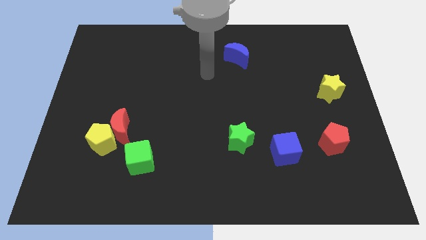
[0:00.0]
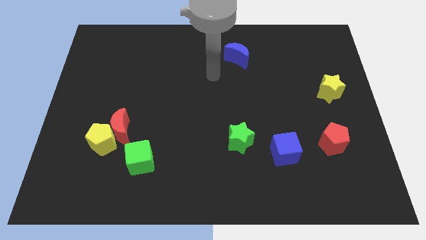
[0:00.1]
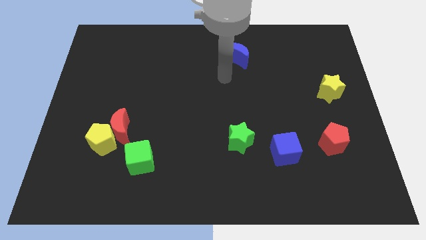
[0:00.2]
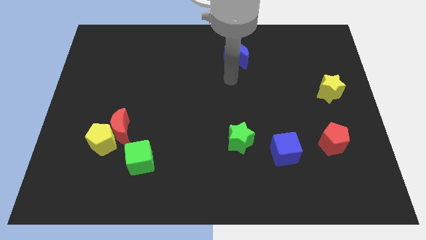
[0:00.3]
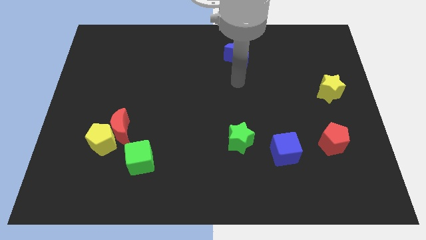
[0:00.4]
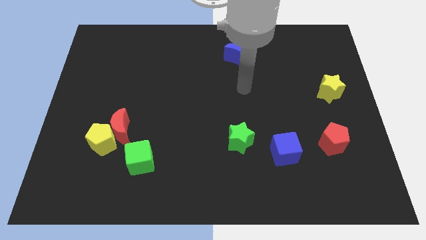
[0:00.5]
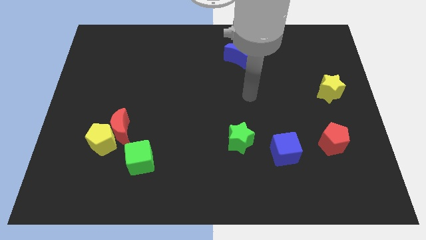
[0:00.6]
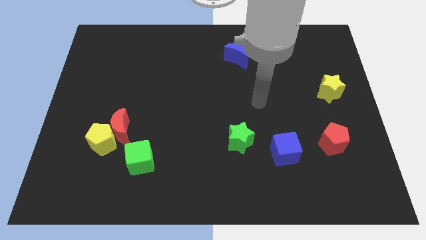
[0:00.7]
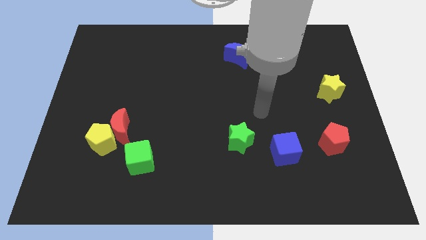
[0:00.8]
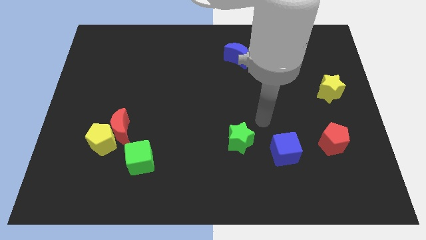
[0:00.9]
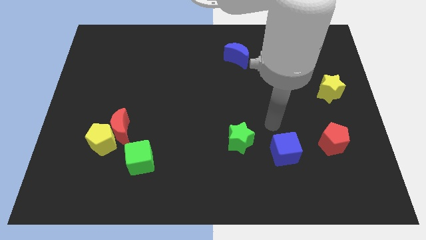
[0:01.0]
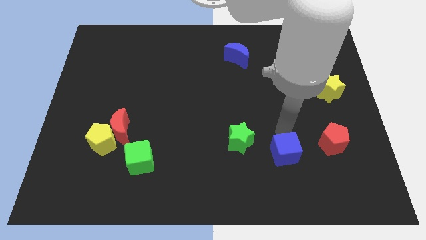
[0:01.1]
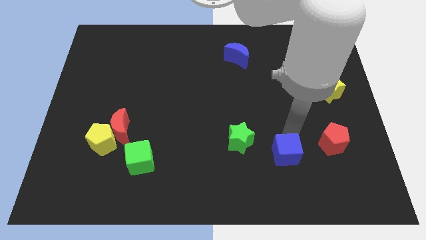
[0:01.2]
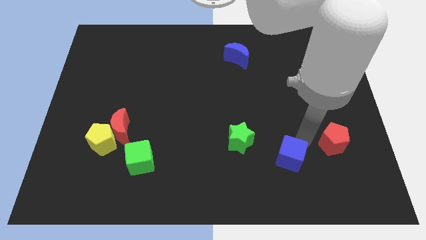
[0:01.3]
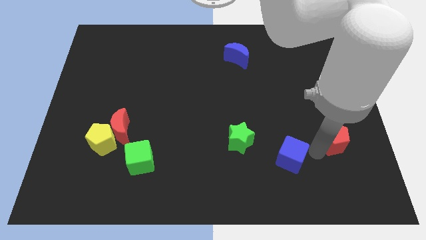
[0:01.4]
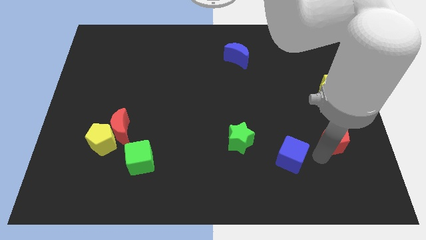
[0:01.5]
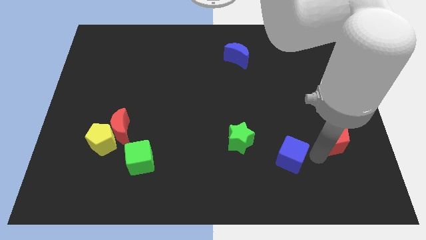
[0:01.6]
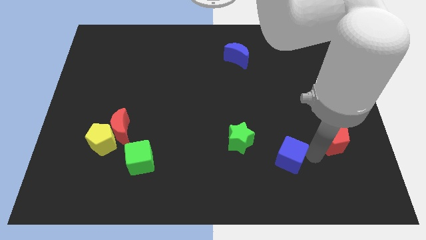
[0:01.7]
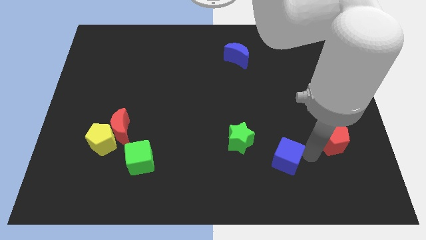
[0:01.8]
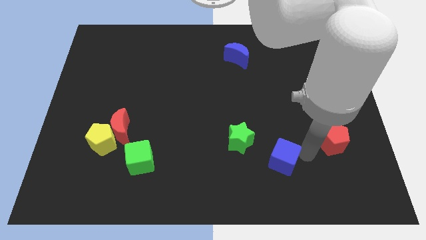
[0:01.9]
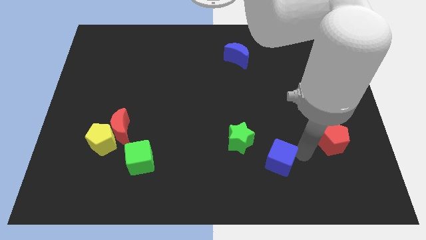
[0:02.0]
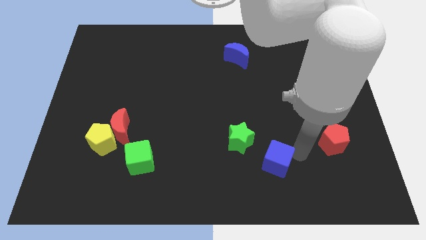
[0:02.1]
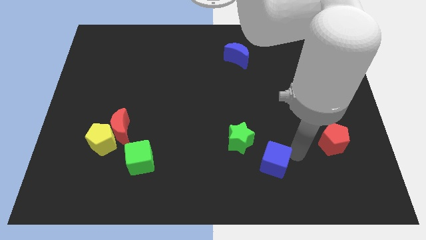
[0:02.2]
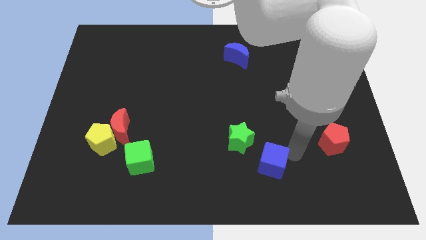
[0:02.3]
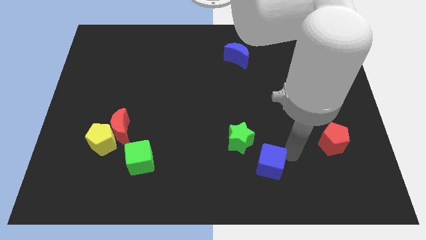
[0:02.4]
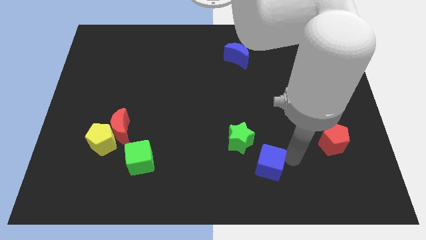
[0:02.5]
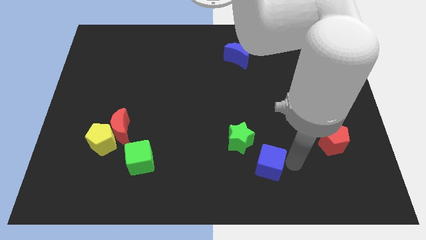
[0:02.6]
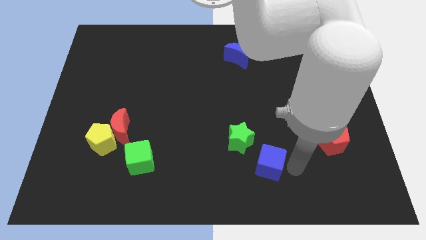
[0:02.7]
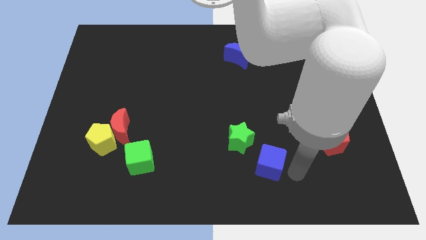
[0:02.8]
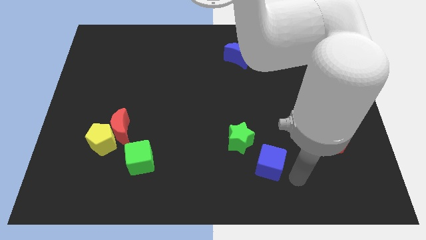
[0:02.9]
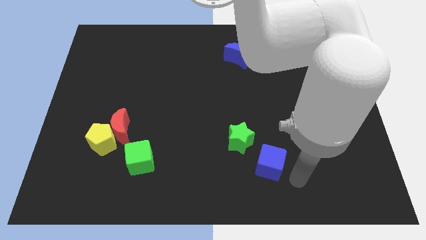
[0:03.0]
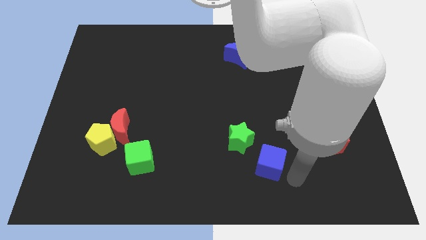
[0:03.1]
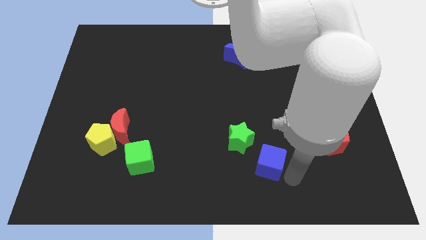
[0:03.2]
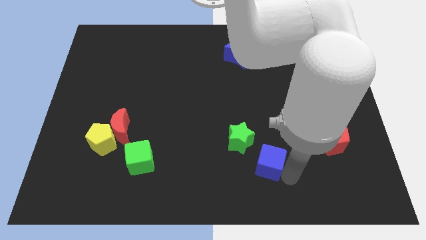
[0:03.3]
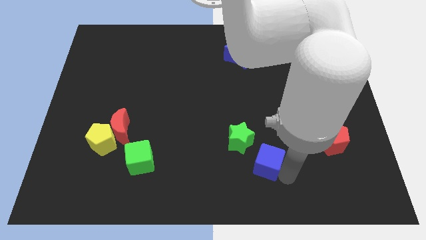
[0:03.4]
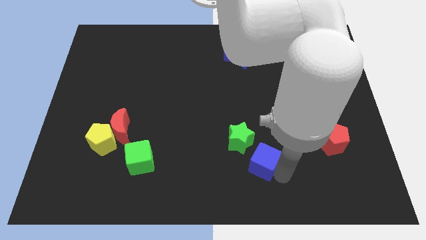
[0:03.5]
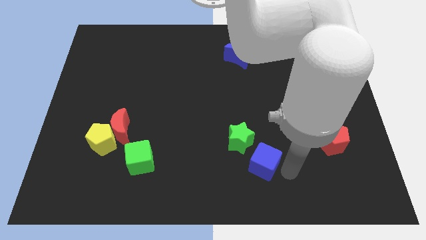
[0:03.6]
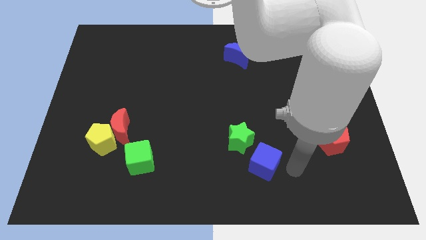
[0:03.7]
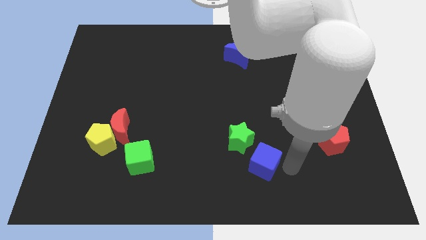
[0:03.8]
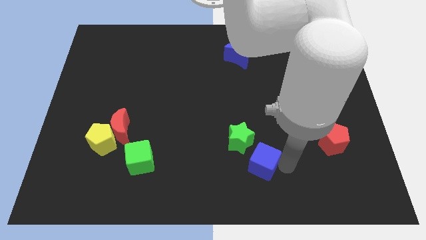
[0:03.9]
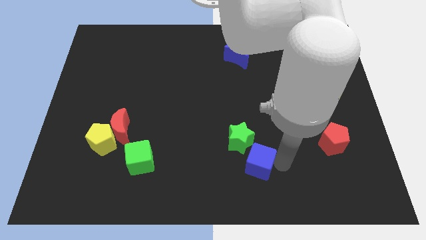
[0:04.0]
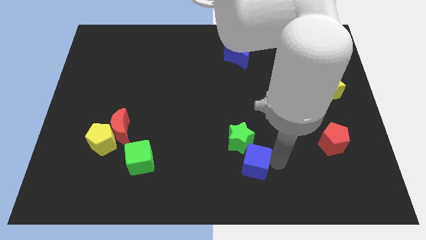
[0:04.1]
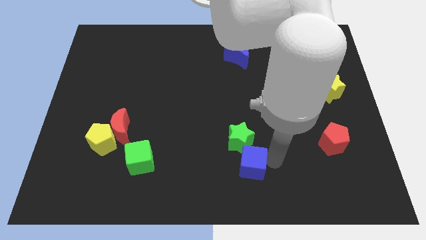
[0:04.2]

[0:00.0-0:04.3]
slightly slide the blue cube left

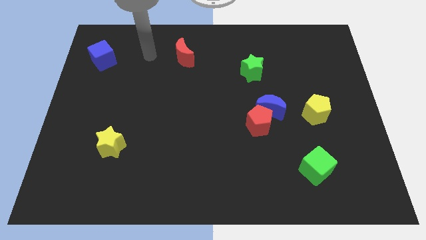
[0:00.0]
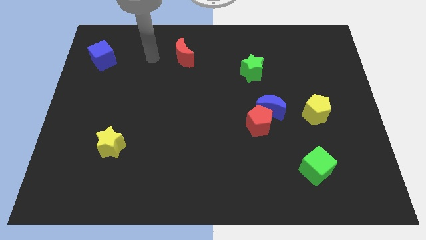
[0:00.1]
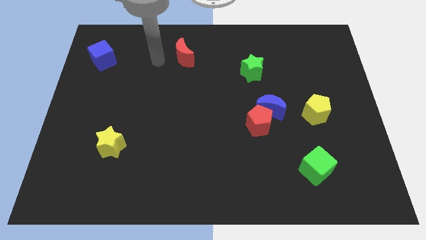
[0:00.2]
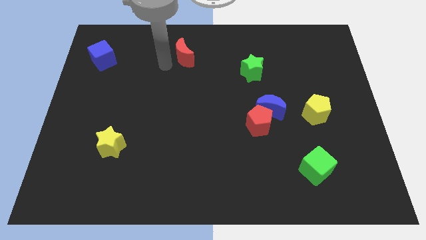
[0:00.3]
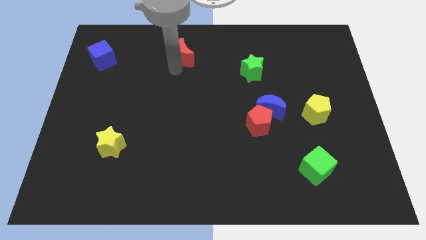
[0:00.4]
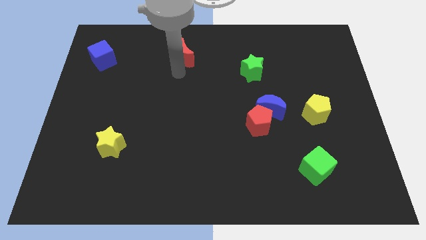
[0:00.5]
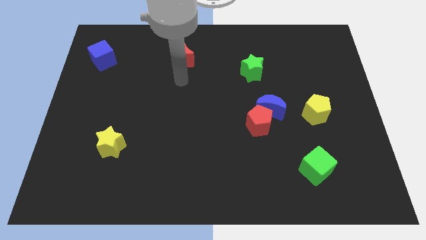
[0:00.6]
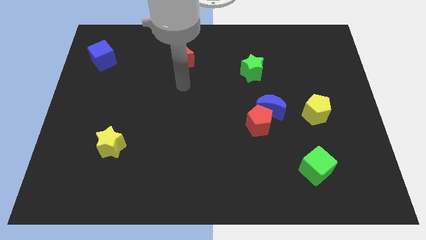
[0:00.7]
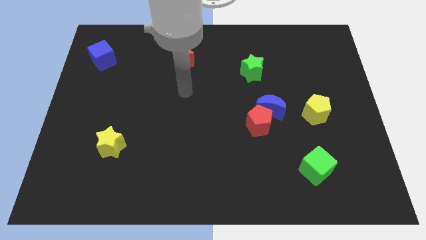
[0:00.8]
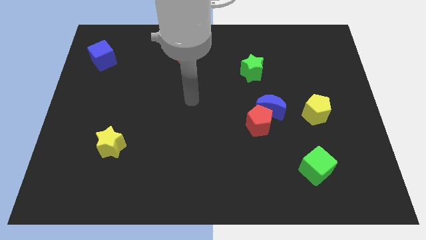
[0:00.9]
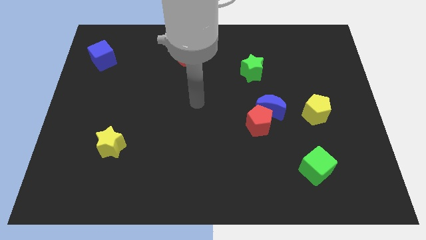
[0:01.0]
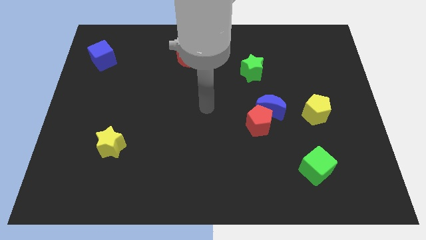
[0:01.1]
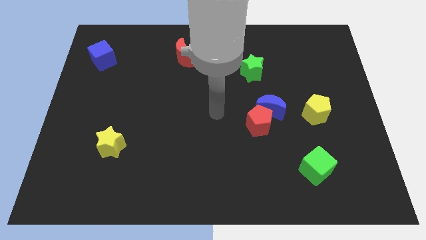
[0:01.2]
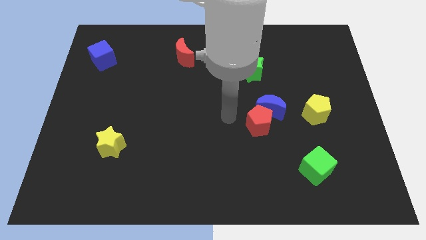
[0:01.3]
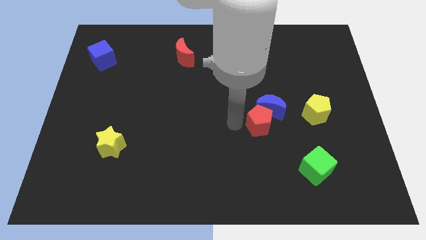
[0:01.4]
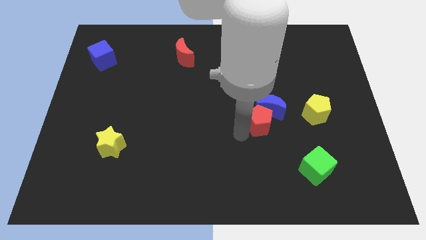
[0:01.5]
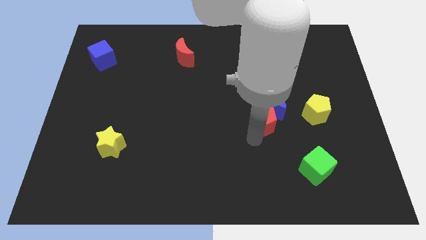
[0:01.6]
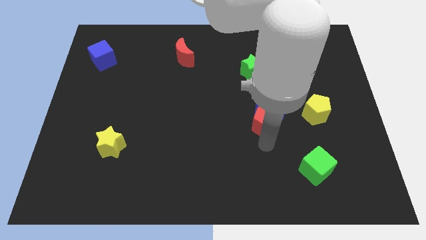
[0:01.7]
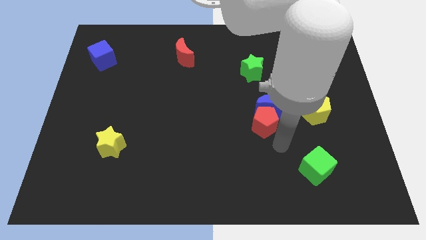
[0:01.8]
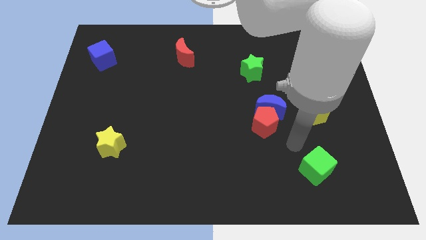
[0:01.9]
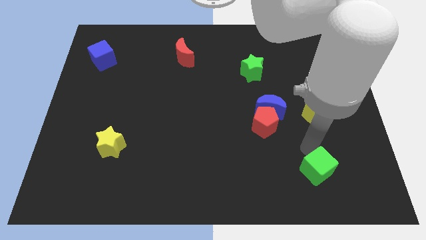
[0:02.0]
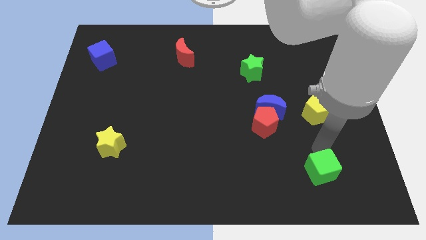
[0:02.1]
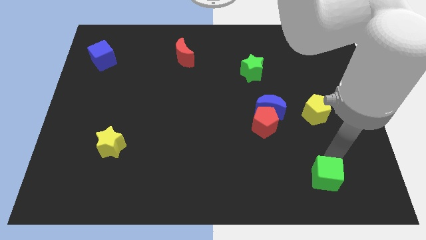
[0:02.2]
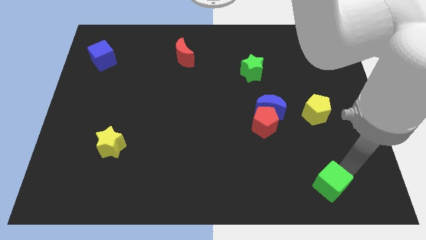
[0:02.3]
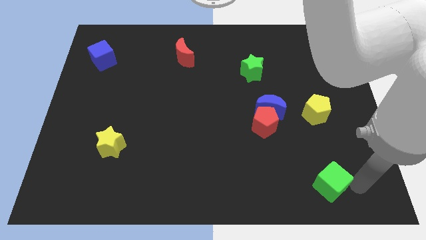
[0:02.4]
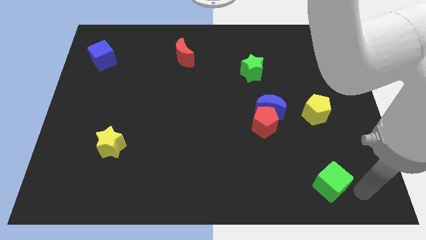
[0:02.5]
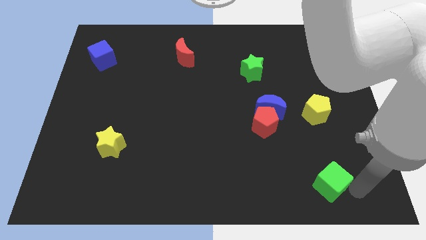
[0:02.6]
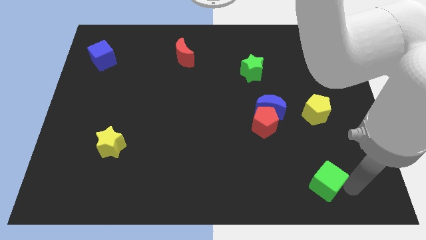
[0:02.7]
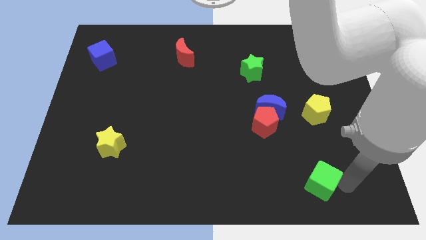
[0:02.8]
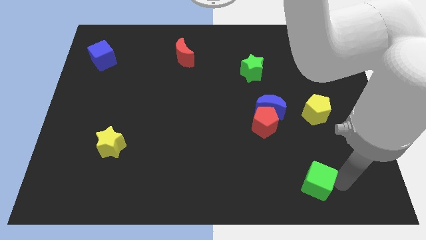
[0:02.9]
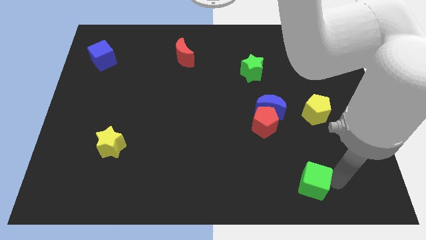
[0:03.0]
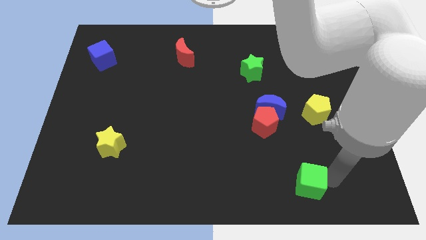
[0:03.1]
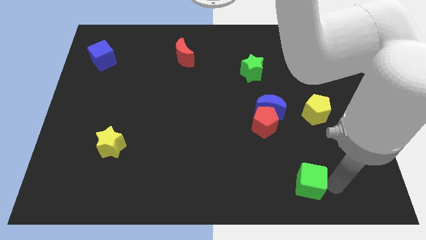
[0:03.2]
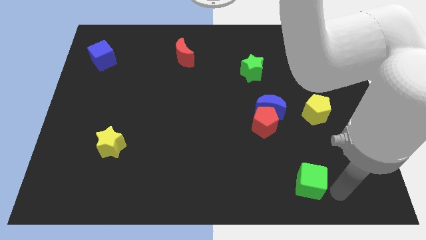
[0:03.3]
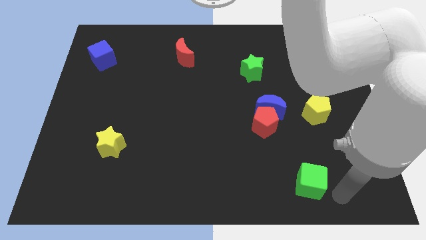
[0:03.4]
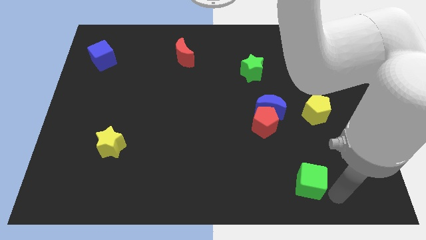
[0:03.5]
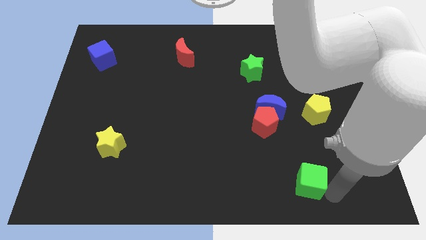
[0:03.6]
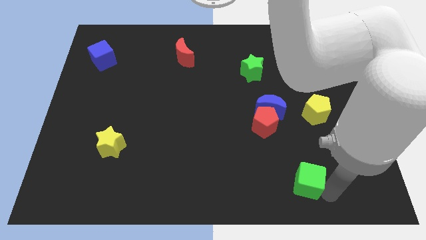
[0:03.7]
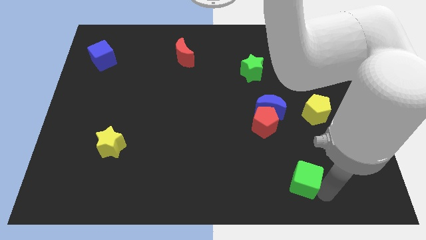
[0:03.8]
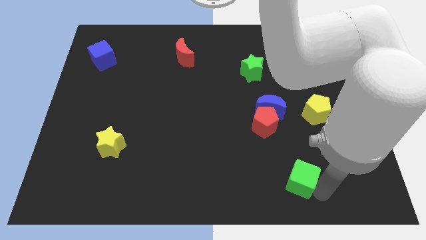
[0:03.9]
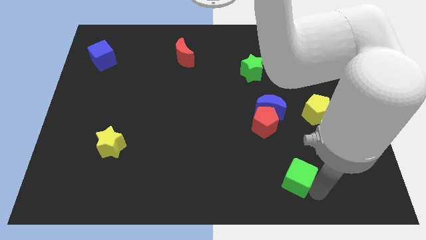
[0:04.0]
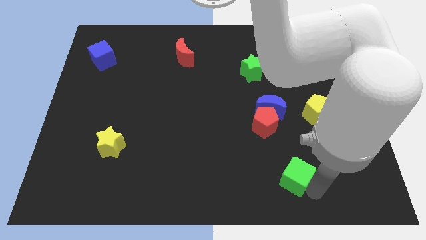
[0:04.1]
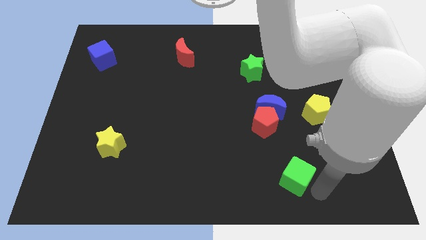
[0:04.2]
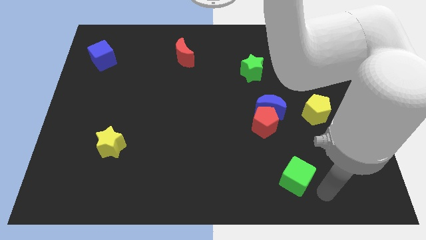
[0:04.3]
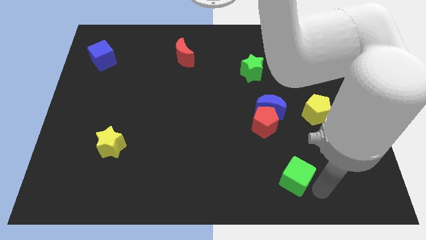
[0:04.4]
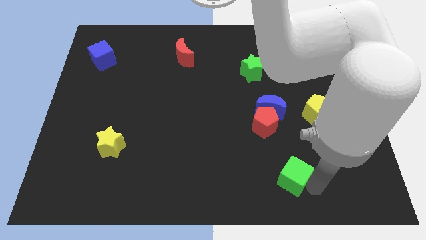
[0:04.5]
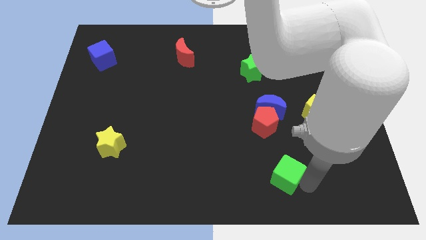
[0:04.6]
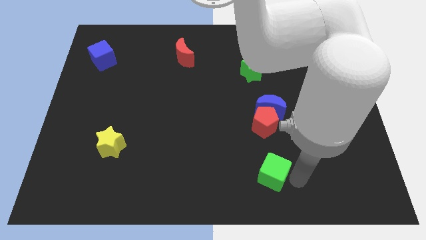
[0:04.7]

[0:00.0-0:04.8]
slightly move the green cube left
